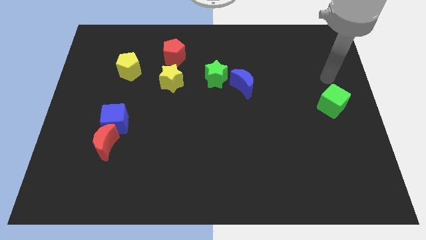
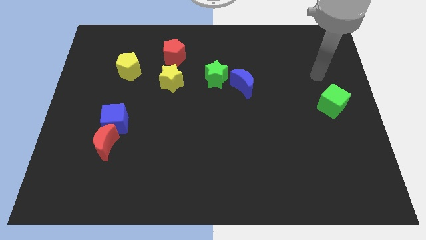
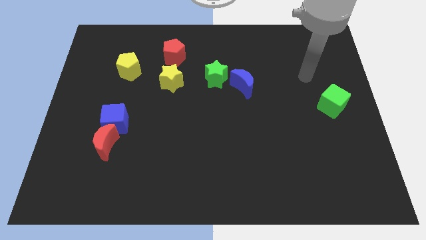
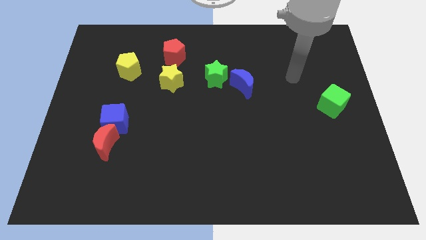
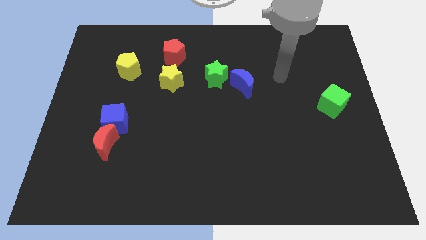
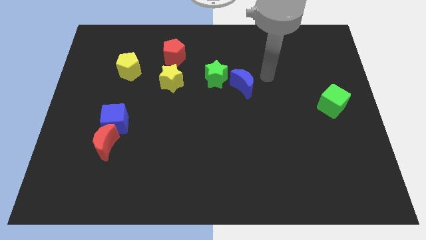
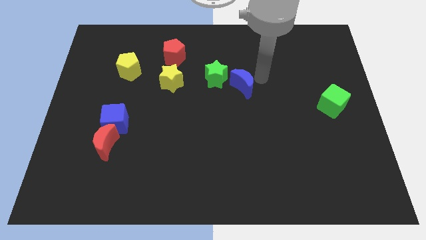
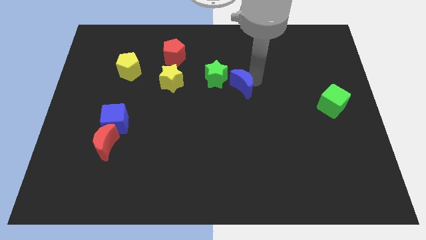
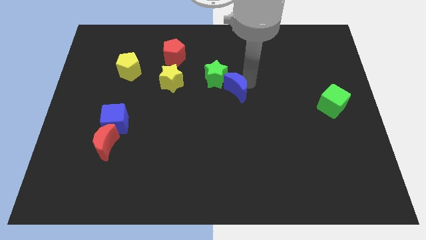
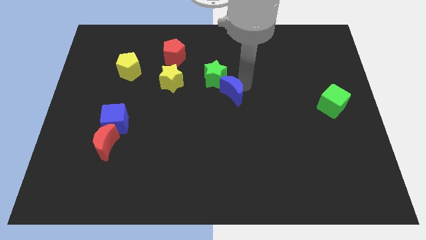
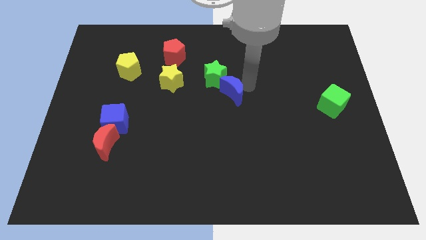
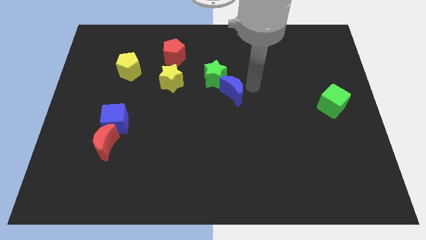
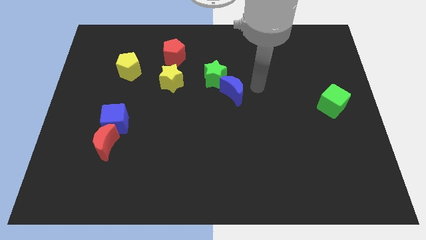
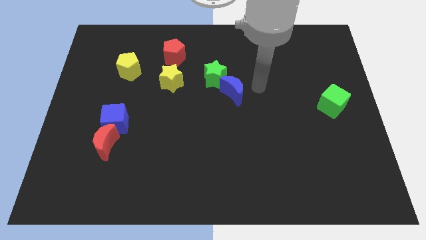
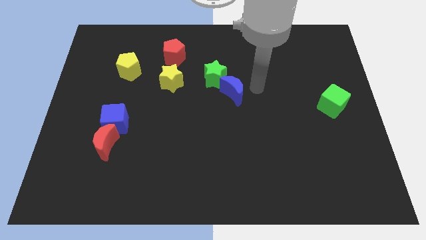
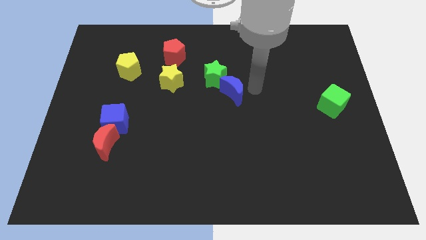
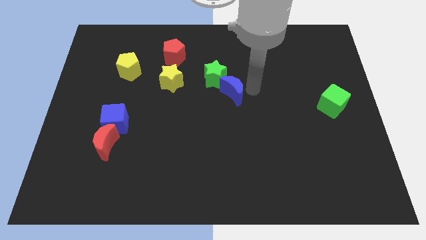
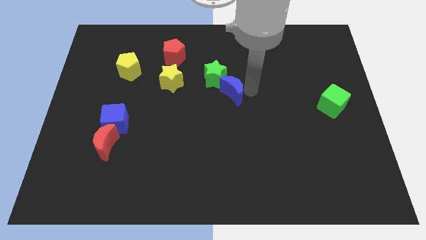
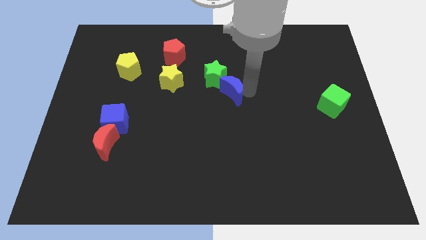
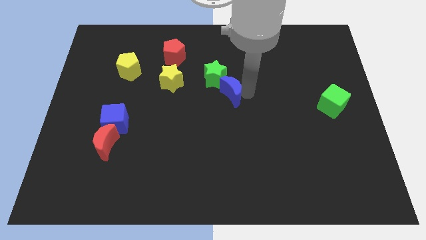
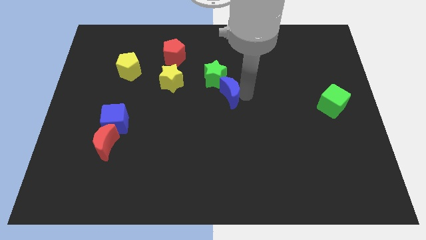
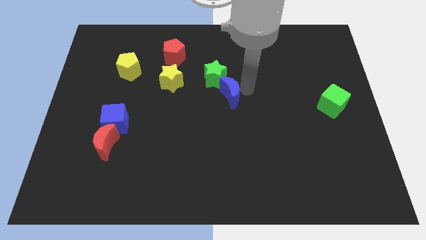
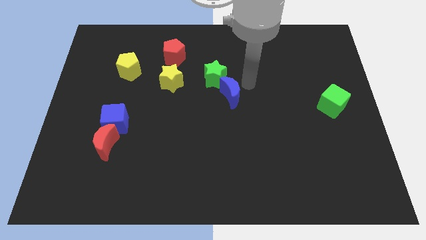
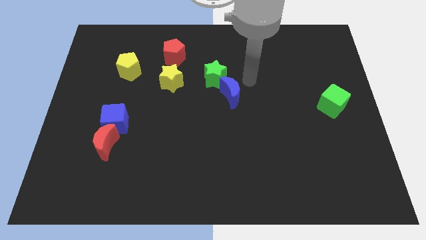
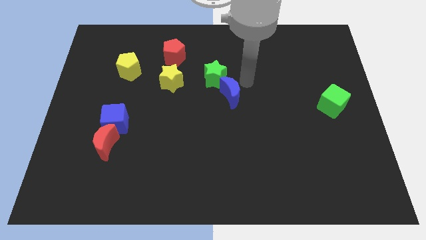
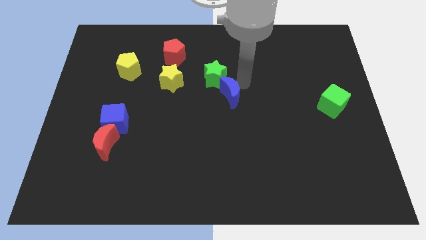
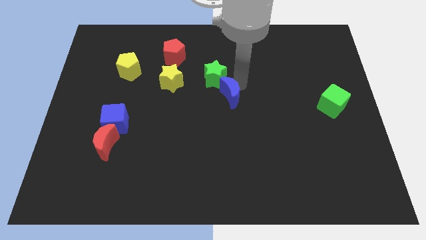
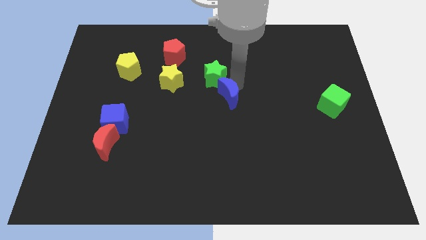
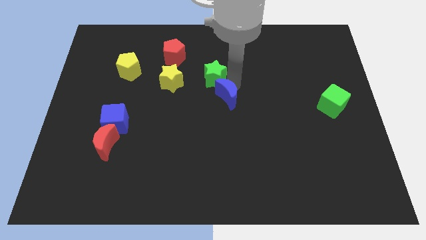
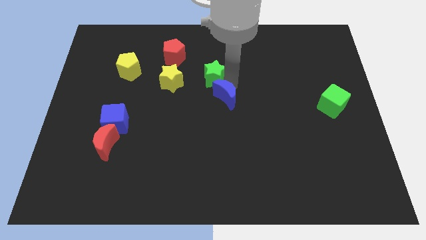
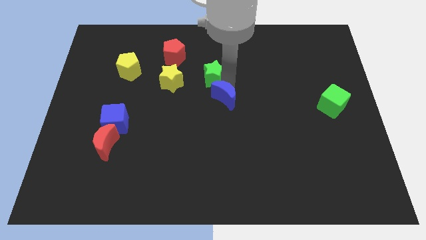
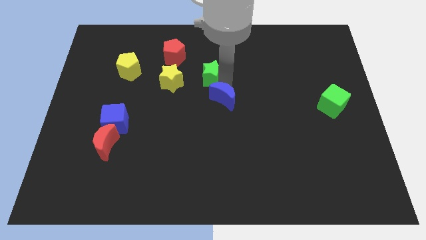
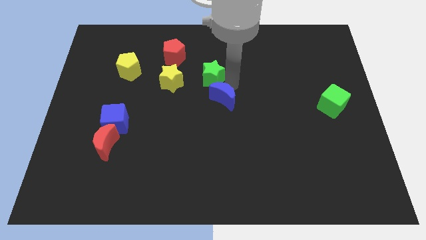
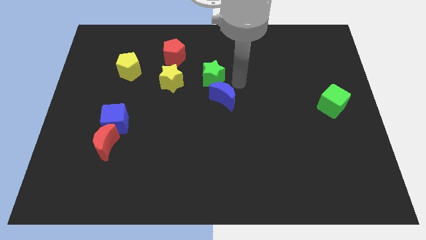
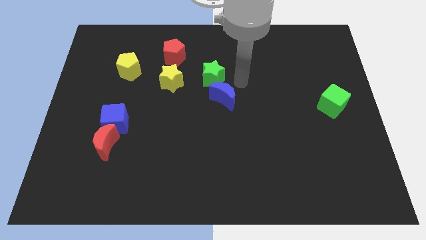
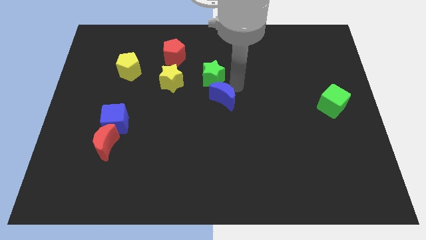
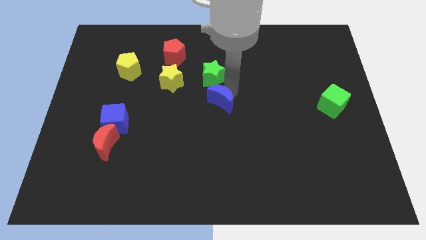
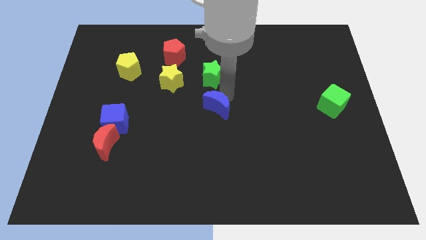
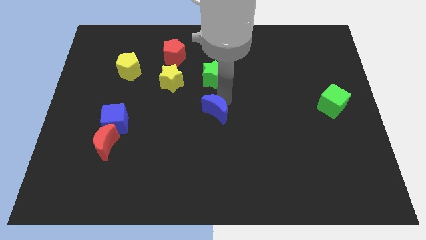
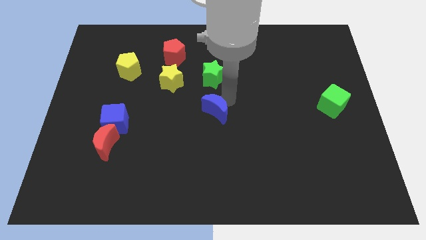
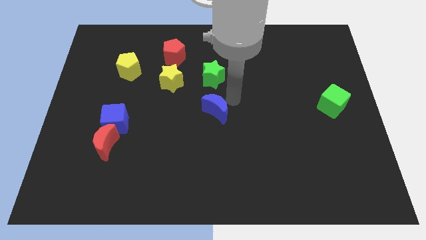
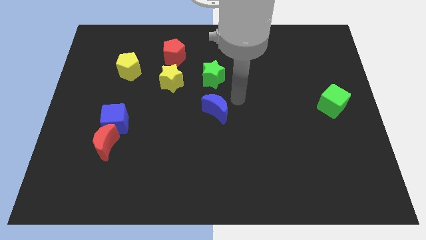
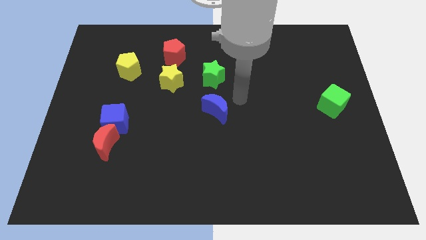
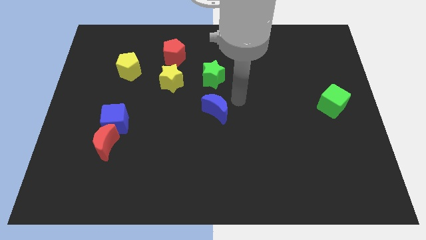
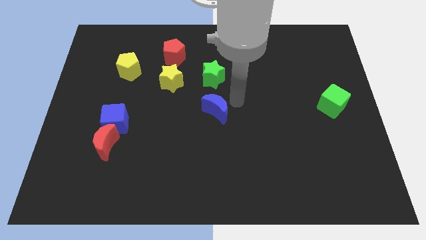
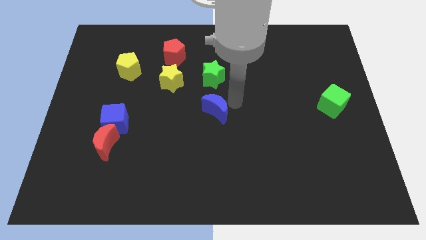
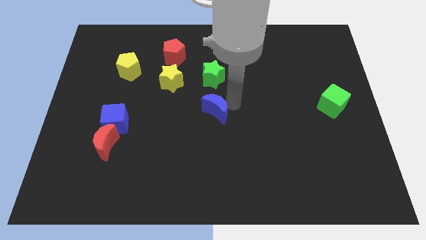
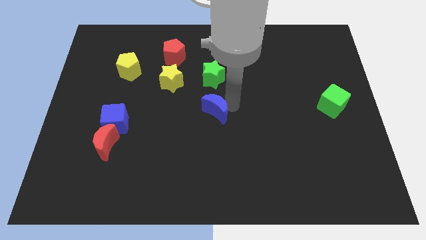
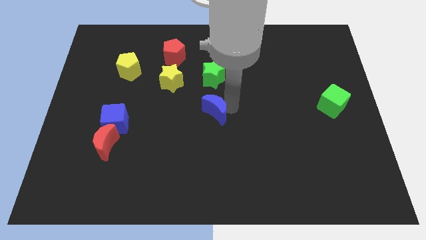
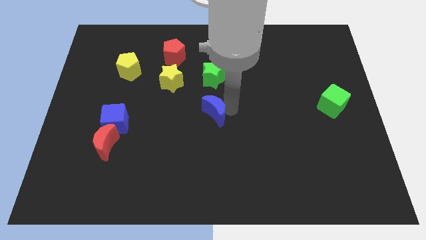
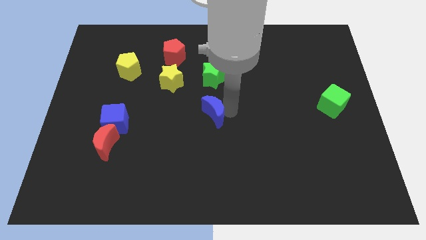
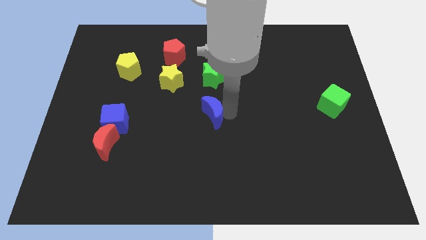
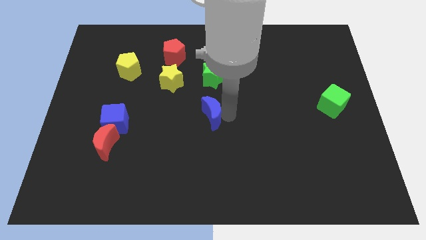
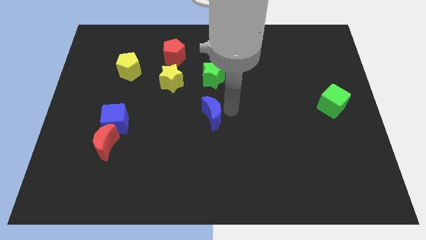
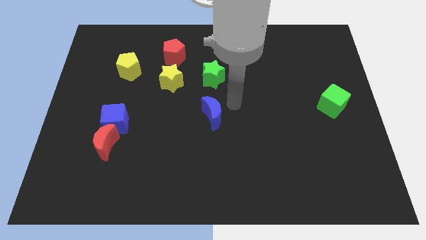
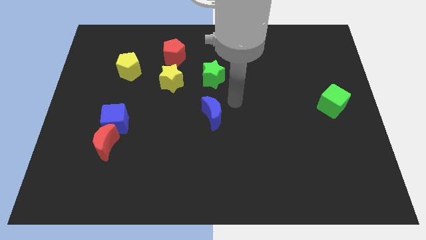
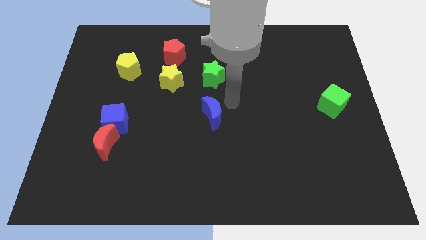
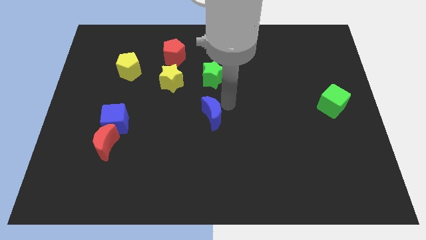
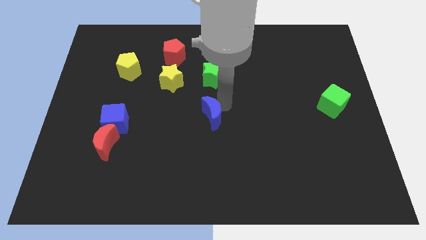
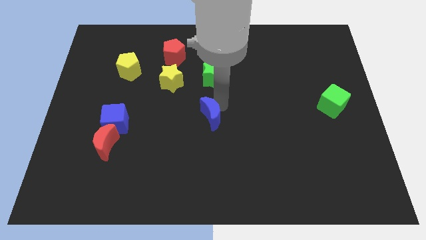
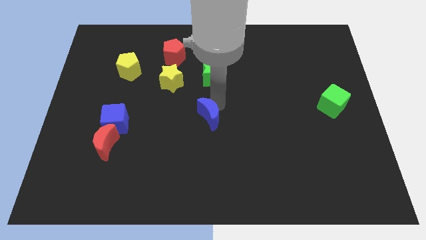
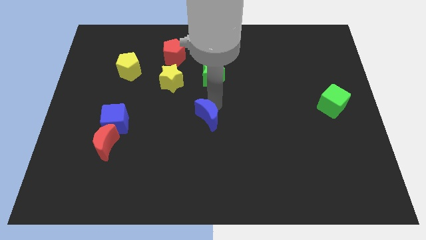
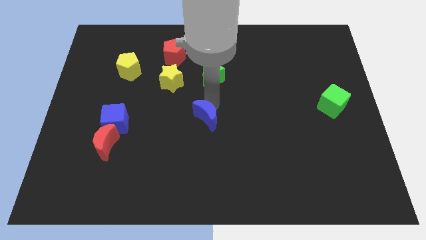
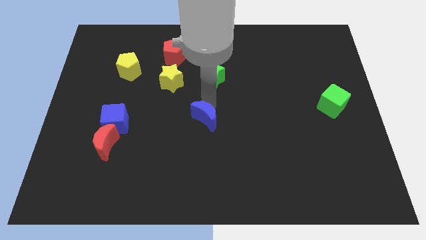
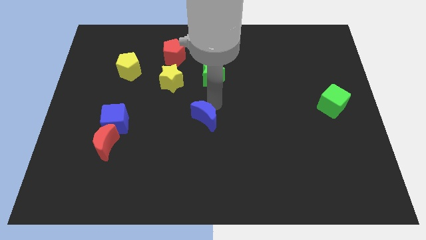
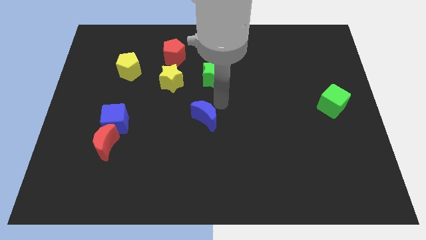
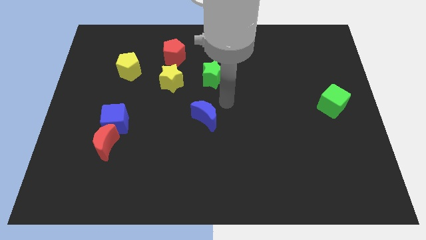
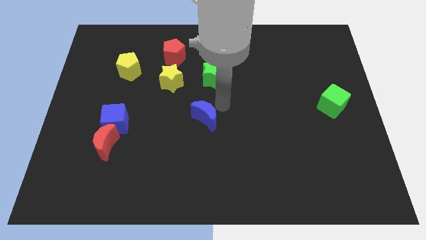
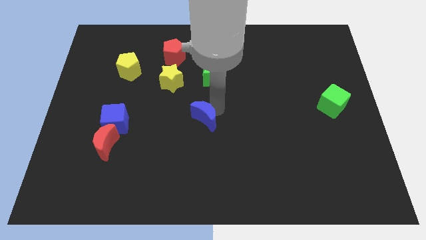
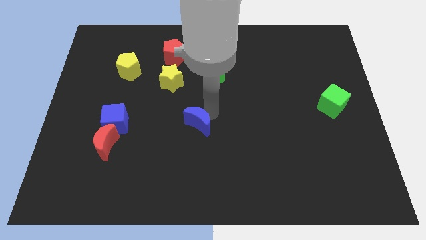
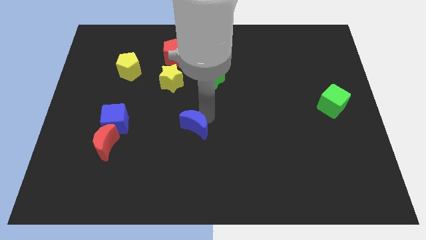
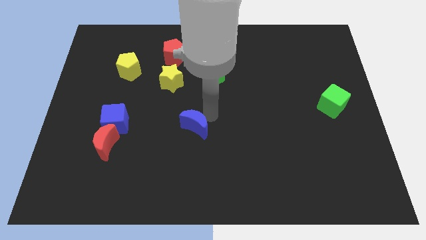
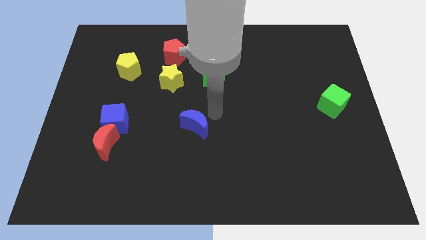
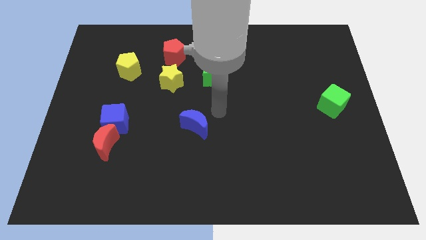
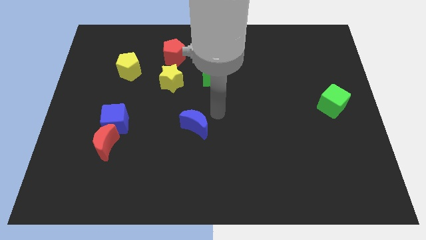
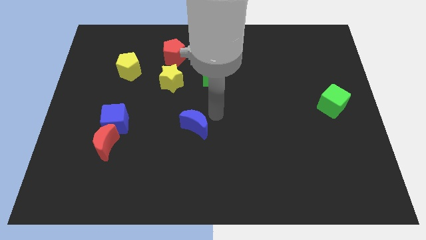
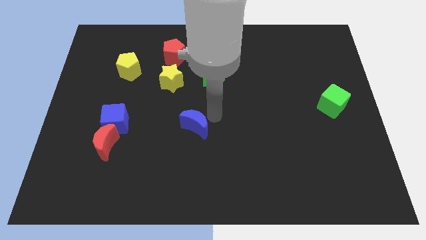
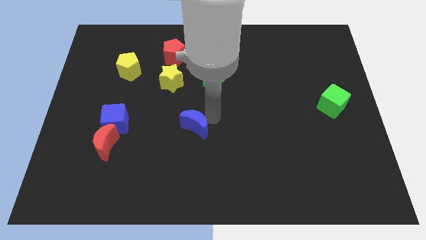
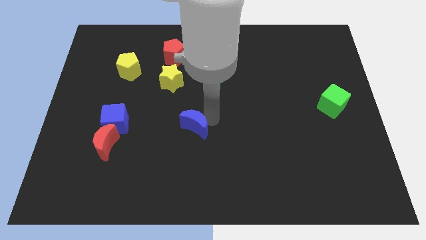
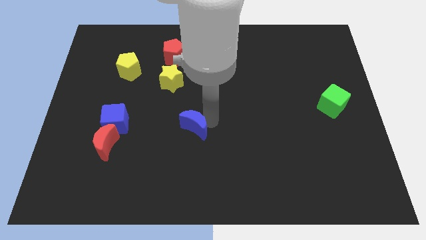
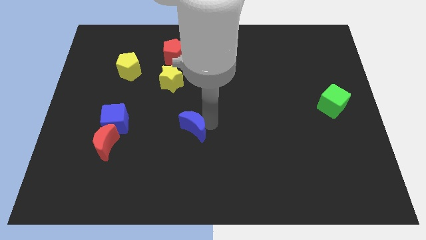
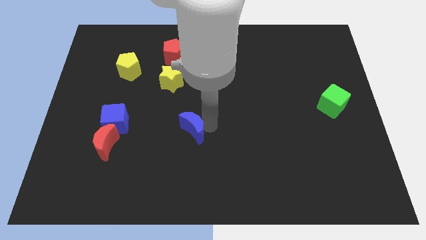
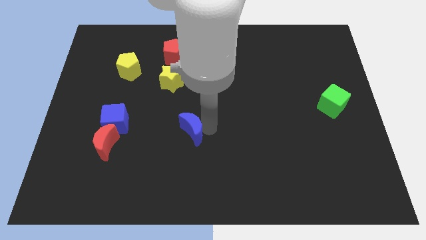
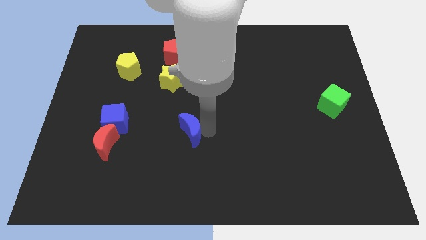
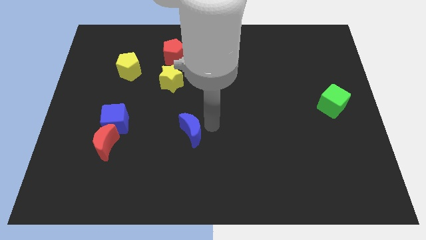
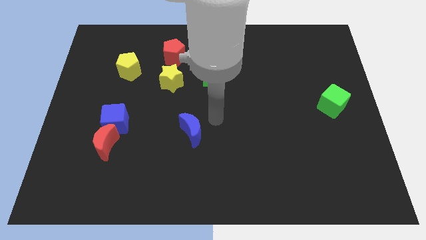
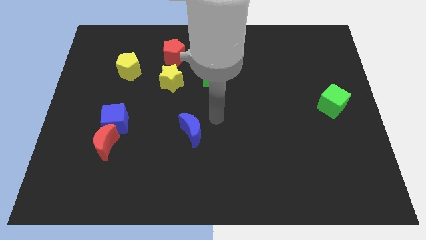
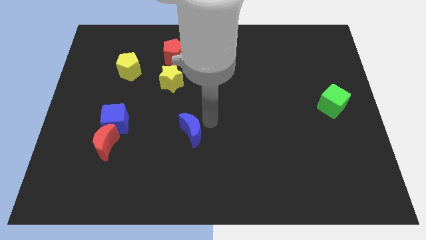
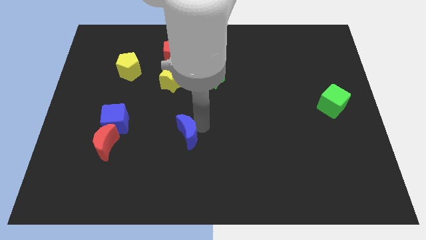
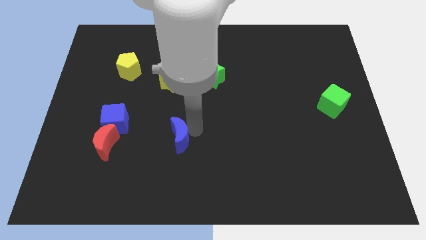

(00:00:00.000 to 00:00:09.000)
slide the blue moon down and then left
